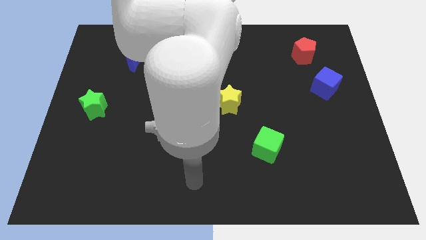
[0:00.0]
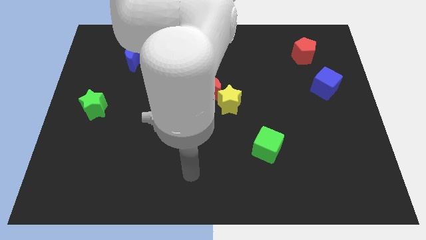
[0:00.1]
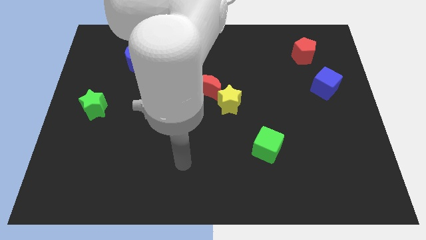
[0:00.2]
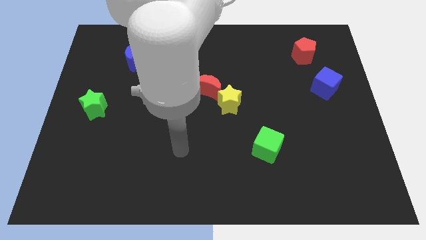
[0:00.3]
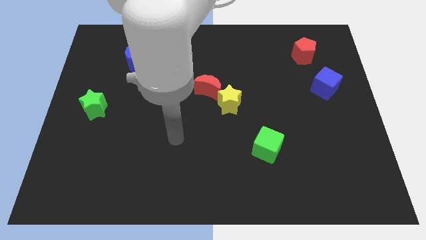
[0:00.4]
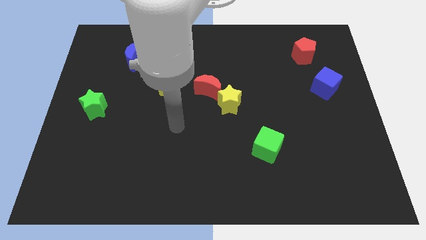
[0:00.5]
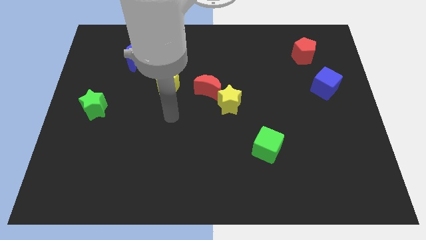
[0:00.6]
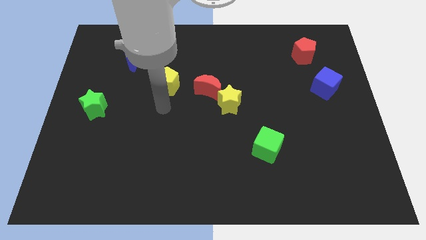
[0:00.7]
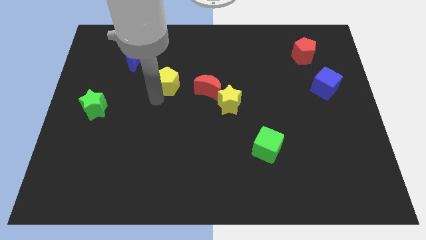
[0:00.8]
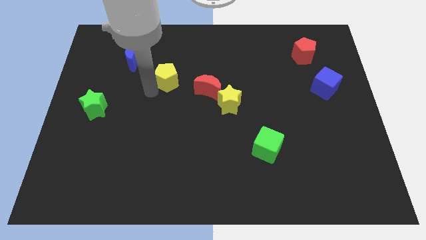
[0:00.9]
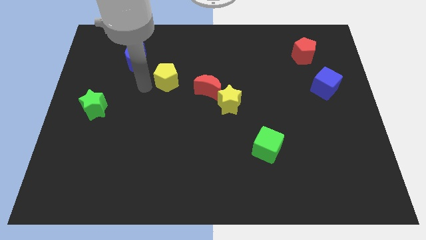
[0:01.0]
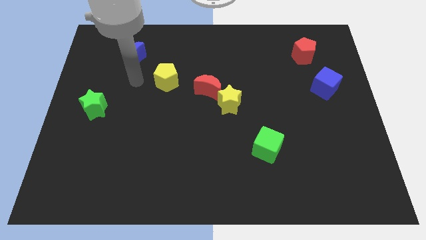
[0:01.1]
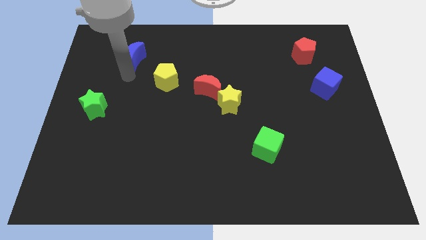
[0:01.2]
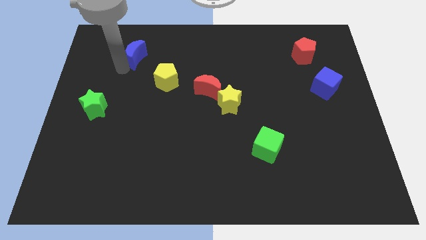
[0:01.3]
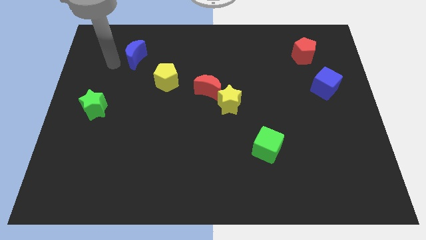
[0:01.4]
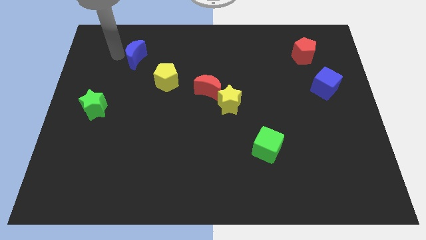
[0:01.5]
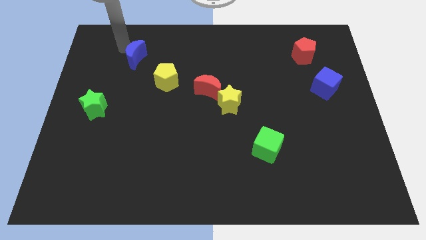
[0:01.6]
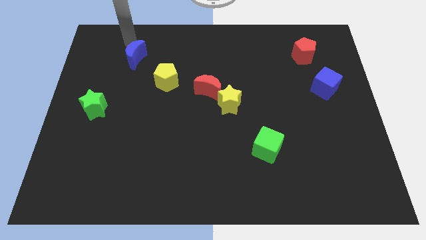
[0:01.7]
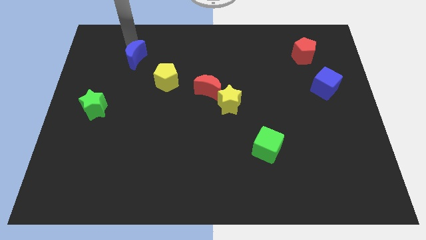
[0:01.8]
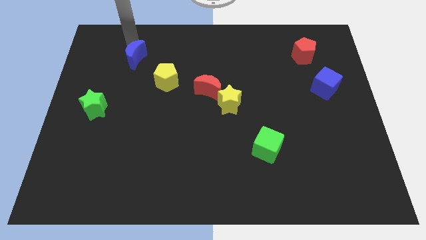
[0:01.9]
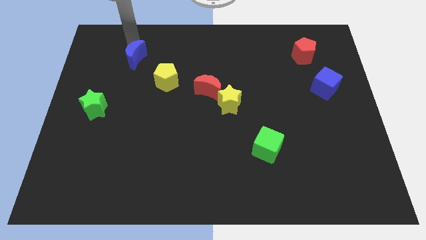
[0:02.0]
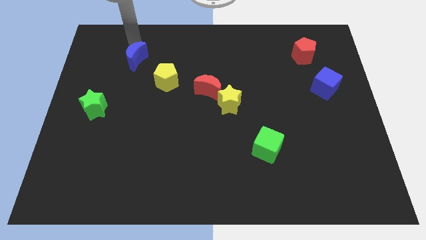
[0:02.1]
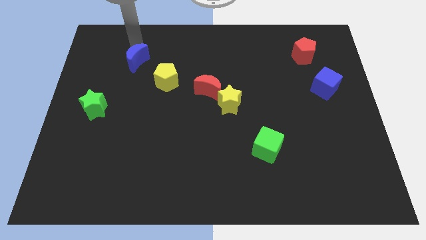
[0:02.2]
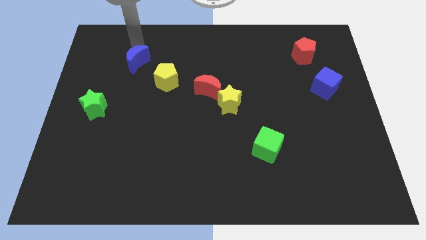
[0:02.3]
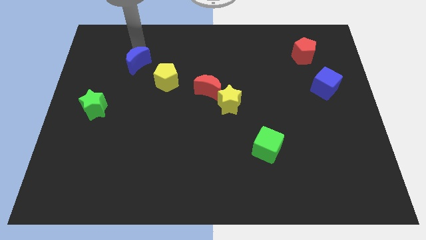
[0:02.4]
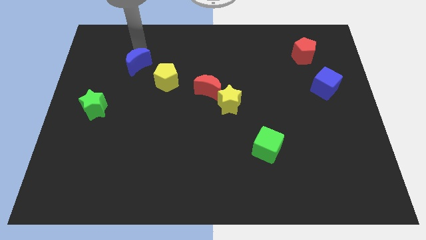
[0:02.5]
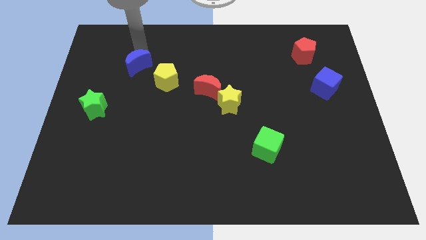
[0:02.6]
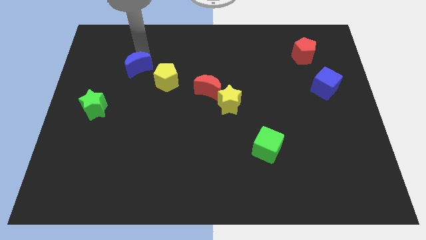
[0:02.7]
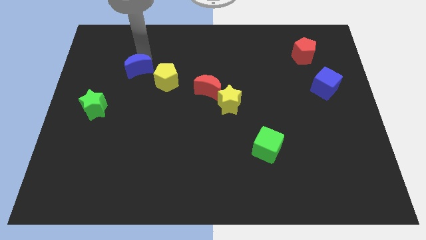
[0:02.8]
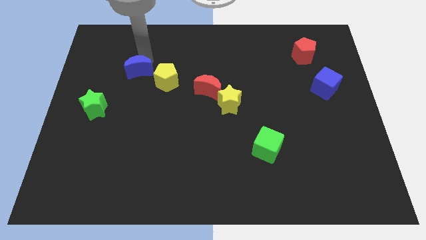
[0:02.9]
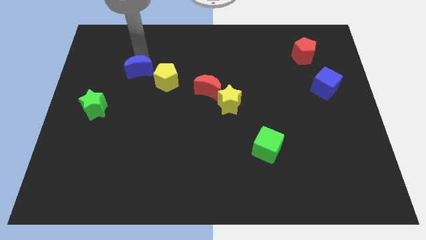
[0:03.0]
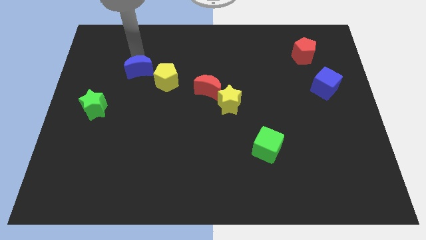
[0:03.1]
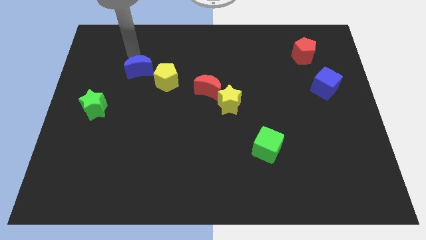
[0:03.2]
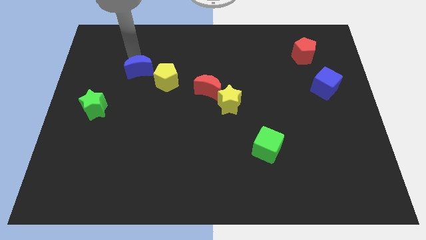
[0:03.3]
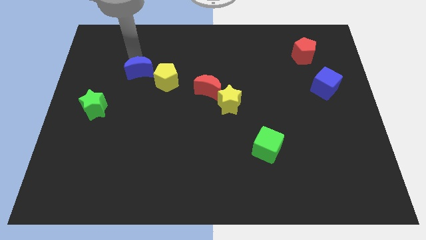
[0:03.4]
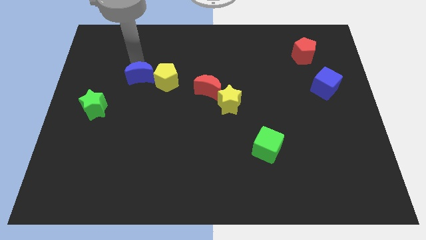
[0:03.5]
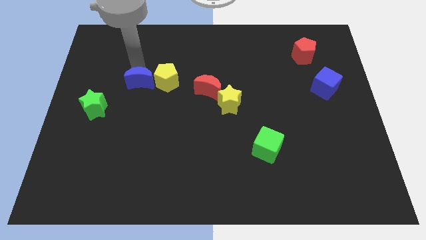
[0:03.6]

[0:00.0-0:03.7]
move the blue moon a little down and right diagonally

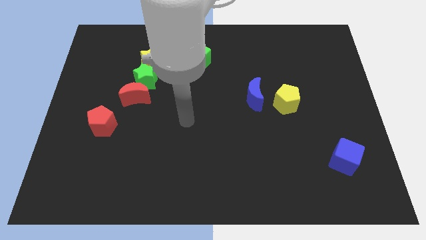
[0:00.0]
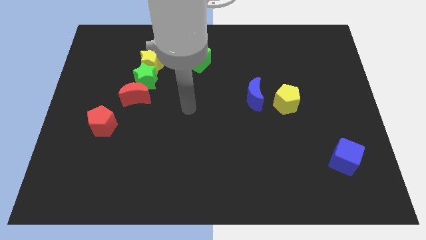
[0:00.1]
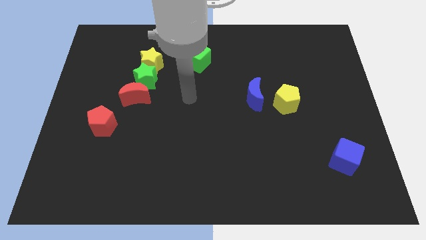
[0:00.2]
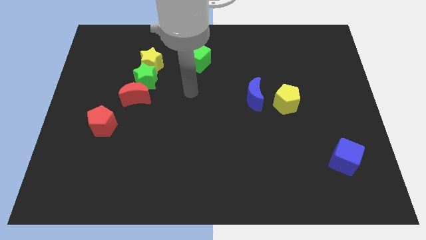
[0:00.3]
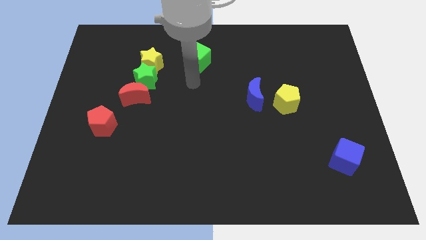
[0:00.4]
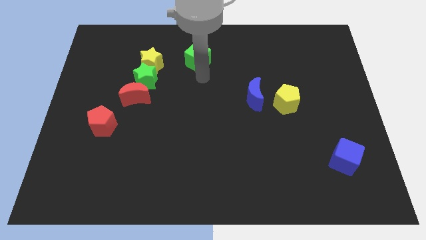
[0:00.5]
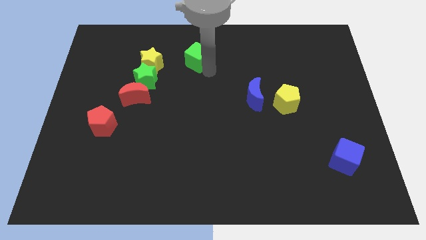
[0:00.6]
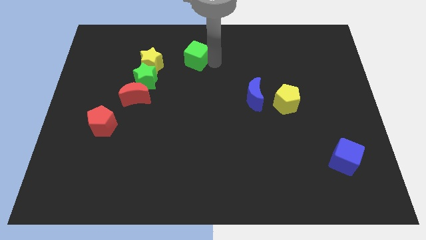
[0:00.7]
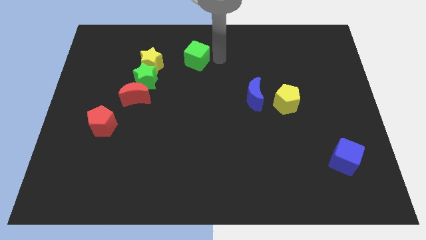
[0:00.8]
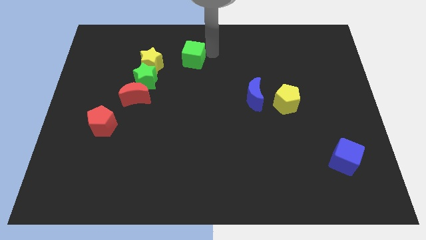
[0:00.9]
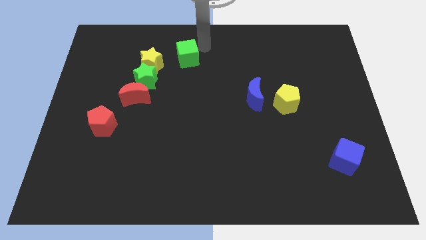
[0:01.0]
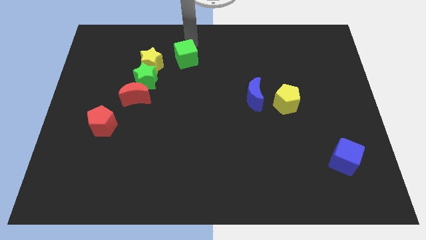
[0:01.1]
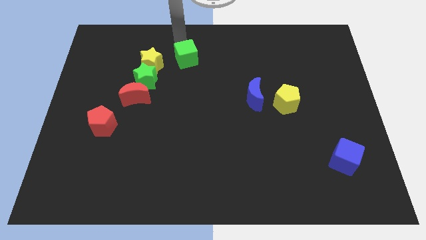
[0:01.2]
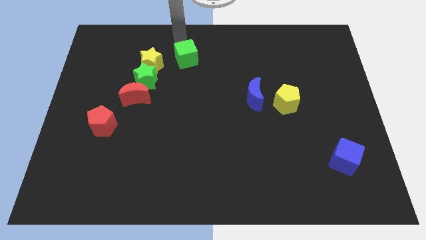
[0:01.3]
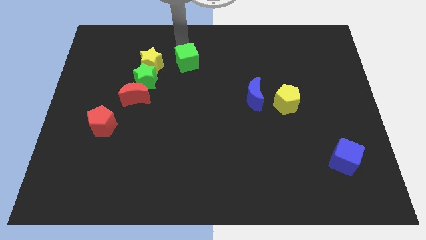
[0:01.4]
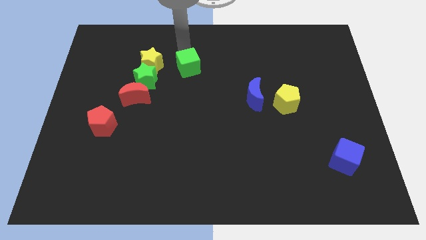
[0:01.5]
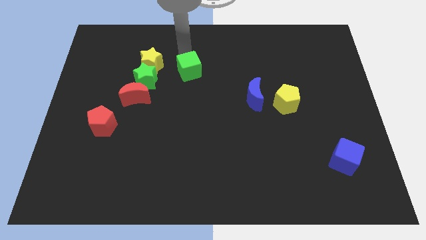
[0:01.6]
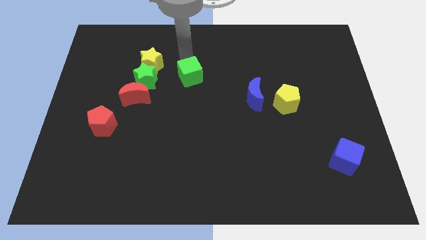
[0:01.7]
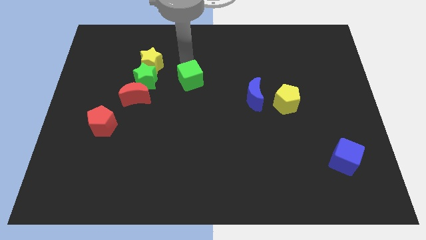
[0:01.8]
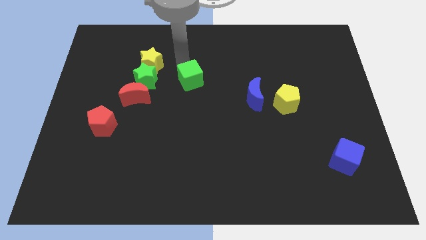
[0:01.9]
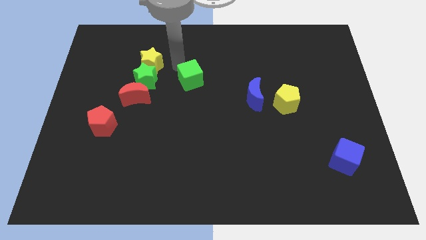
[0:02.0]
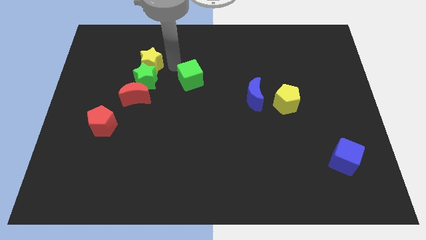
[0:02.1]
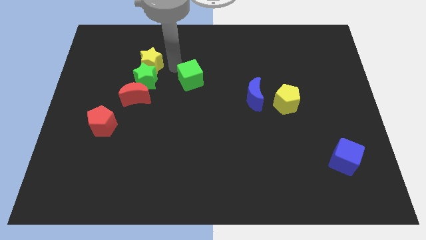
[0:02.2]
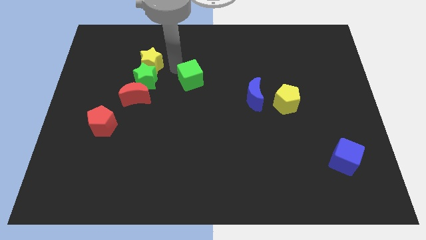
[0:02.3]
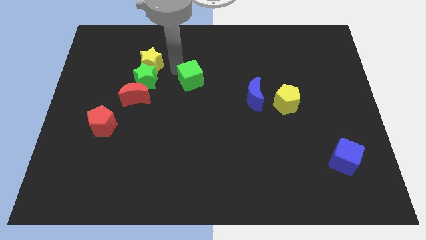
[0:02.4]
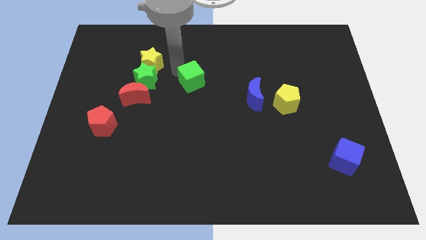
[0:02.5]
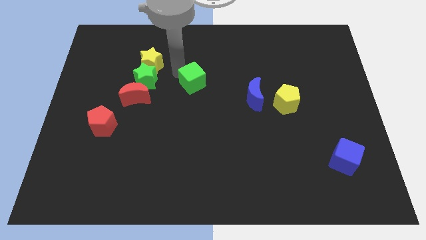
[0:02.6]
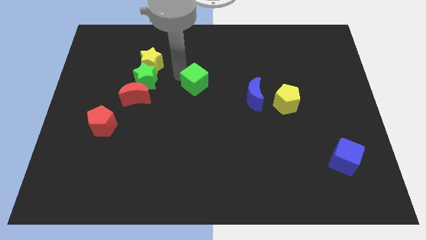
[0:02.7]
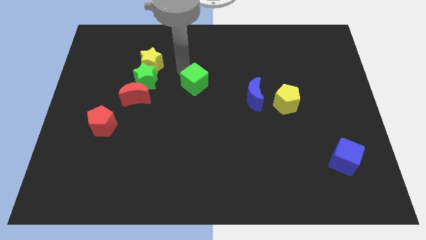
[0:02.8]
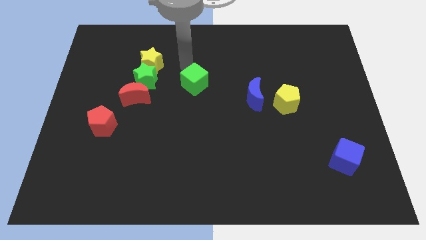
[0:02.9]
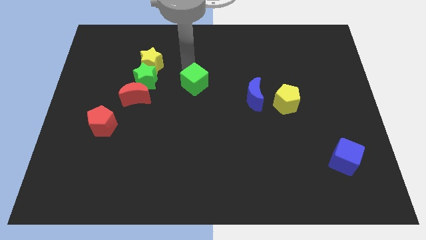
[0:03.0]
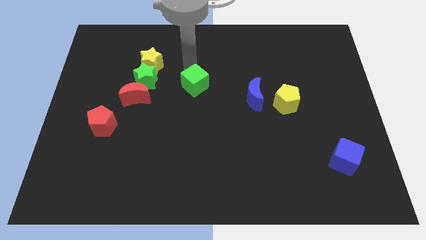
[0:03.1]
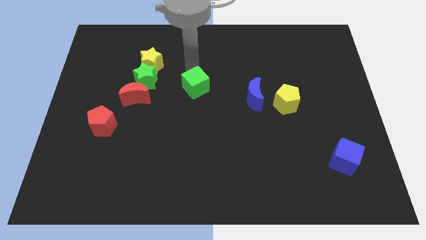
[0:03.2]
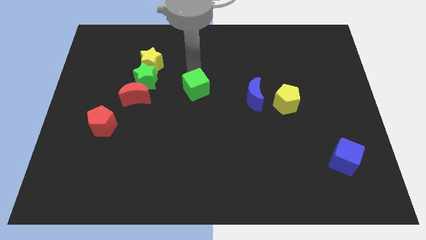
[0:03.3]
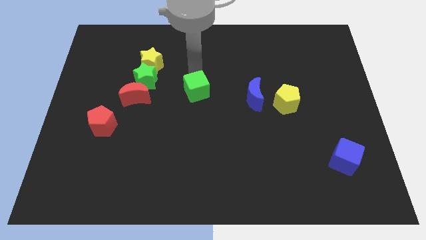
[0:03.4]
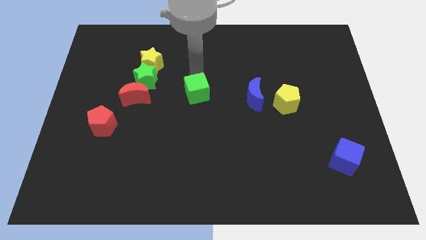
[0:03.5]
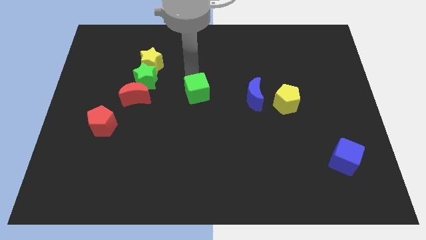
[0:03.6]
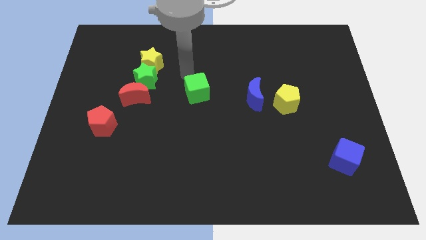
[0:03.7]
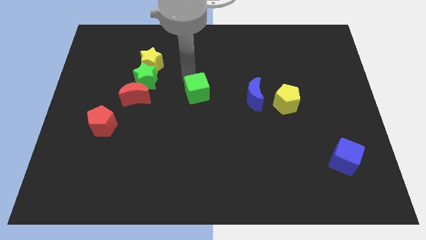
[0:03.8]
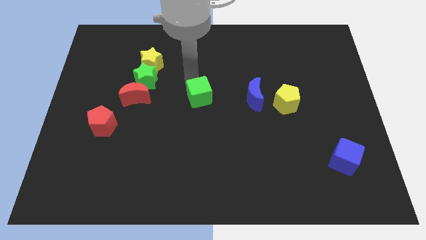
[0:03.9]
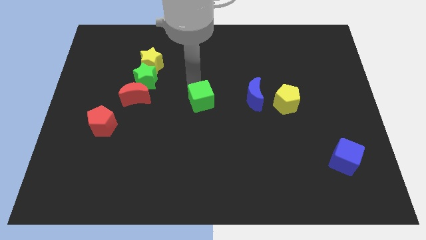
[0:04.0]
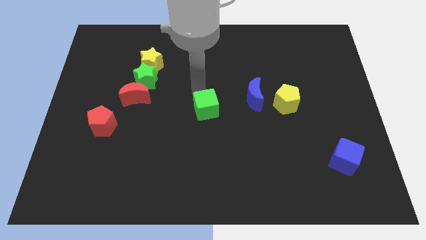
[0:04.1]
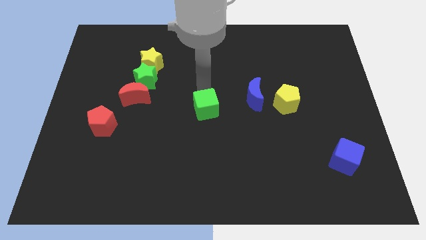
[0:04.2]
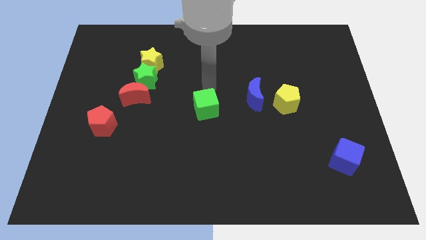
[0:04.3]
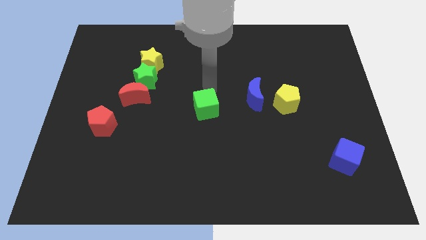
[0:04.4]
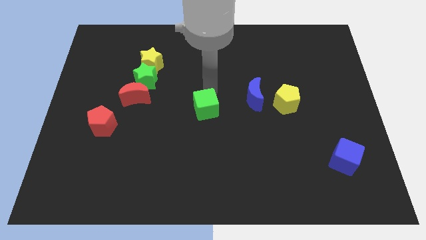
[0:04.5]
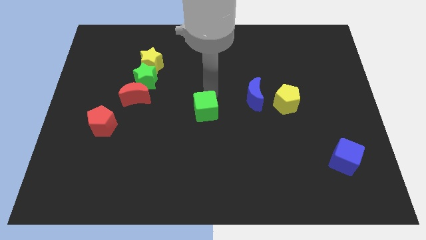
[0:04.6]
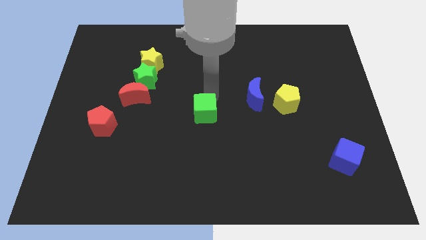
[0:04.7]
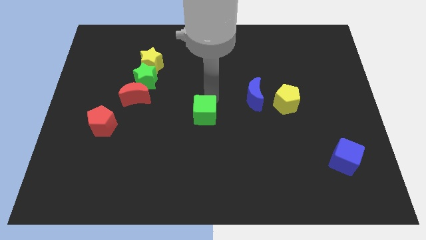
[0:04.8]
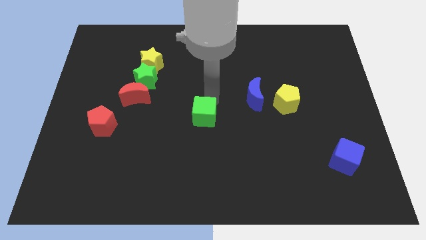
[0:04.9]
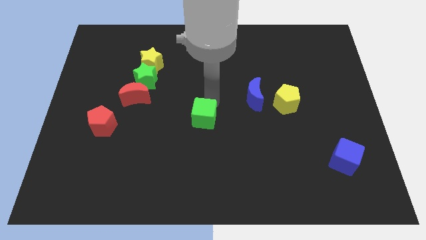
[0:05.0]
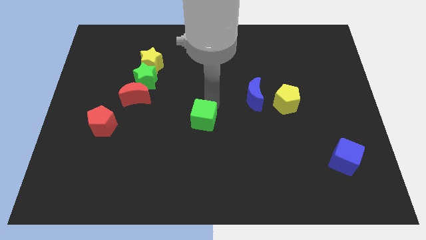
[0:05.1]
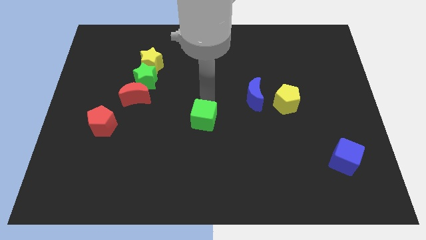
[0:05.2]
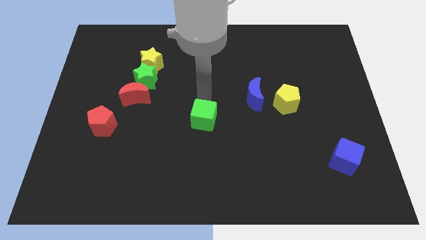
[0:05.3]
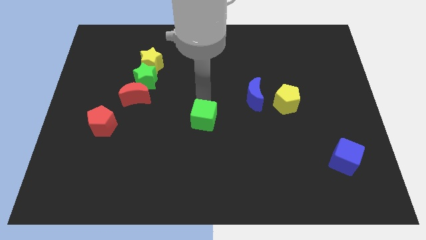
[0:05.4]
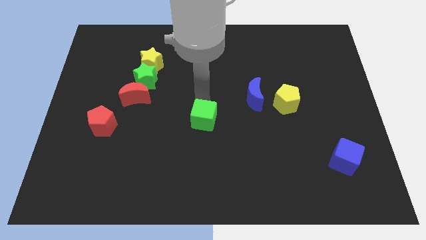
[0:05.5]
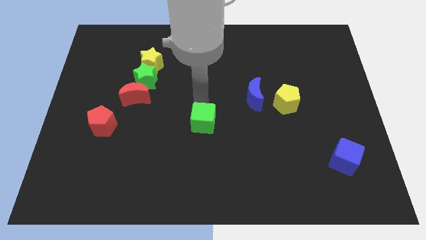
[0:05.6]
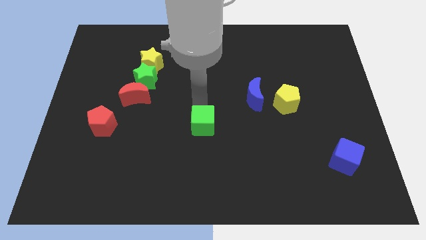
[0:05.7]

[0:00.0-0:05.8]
push the green cube down
